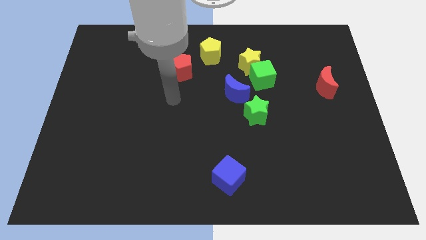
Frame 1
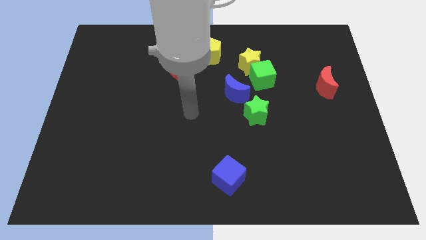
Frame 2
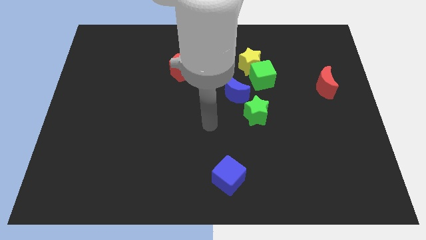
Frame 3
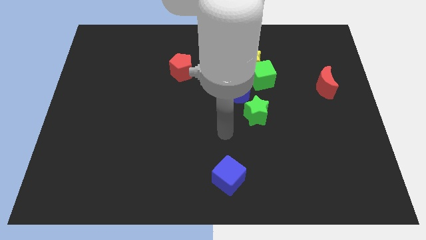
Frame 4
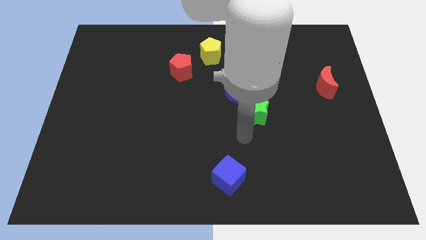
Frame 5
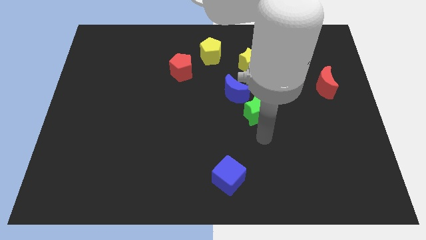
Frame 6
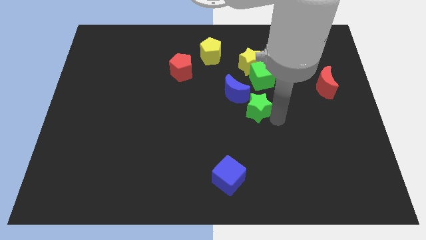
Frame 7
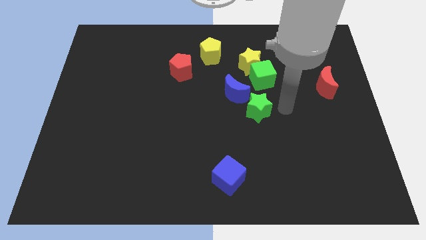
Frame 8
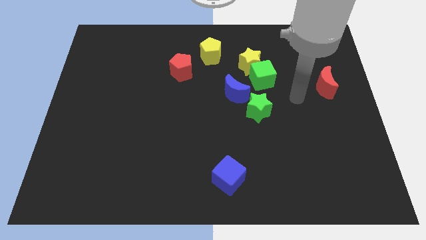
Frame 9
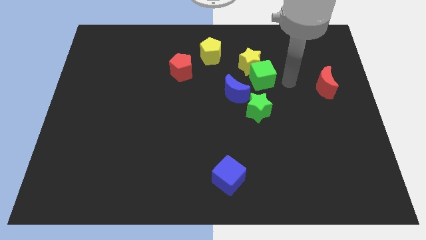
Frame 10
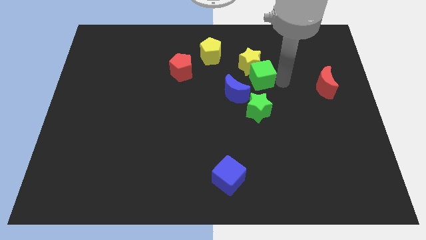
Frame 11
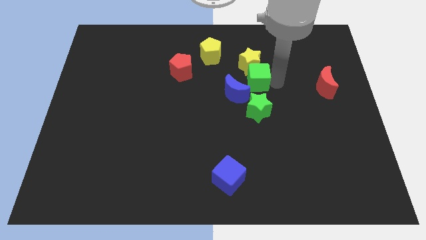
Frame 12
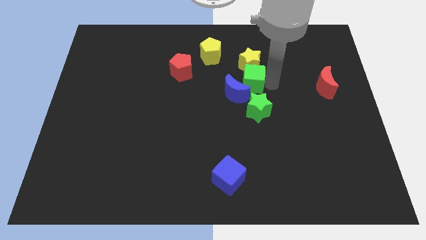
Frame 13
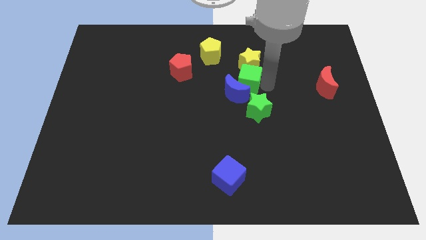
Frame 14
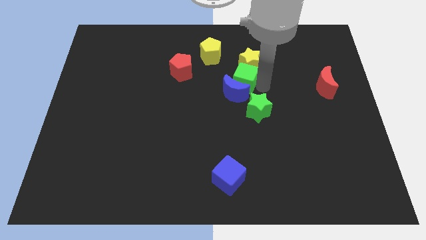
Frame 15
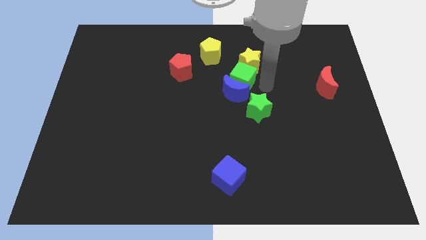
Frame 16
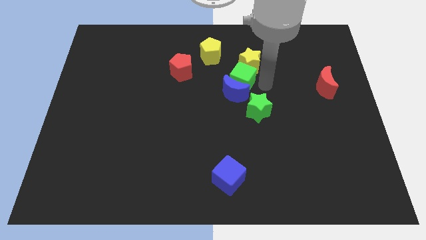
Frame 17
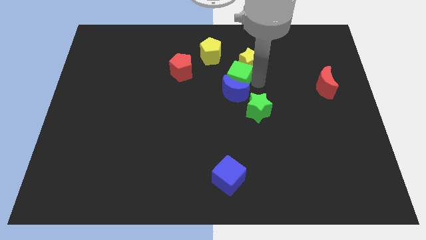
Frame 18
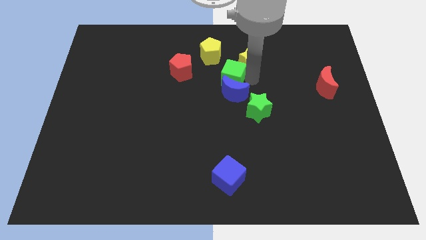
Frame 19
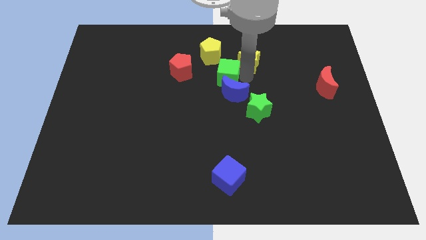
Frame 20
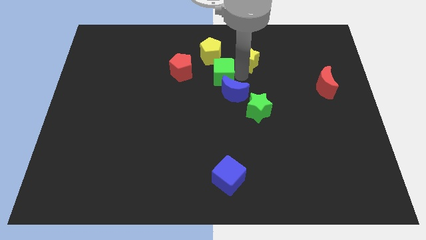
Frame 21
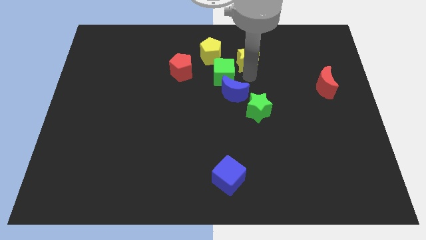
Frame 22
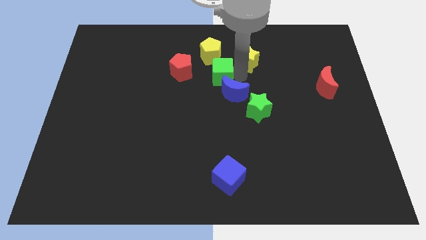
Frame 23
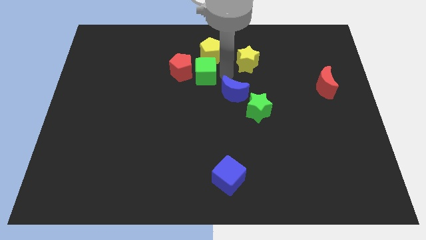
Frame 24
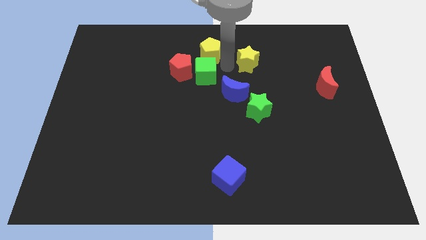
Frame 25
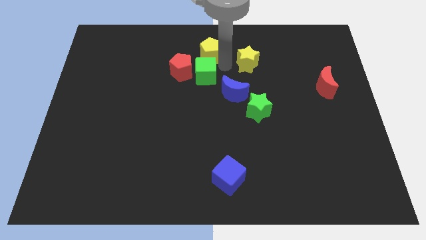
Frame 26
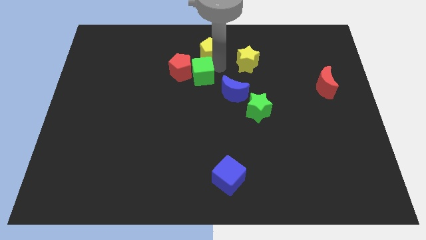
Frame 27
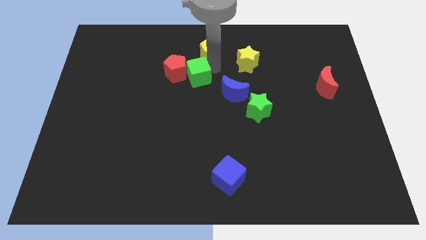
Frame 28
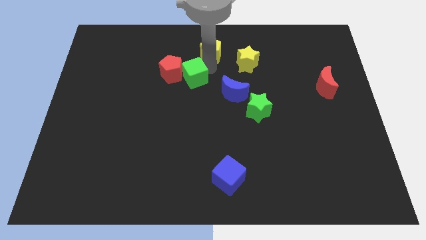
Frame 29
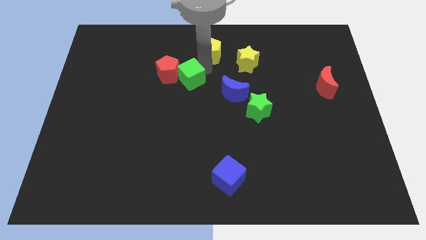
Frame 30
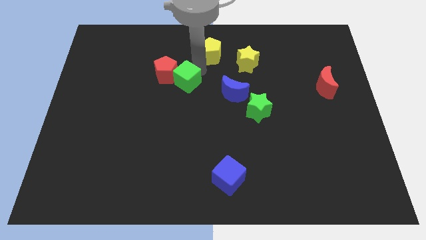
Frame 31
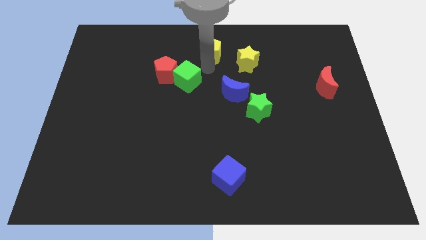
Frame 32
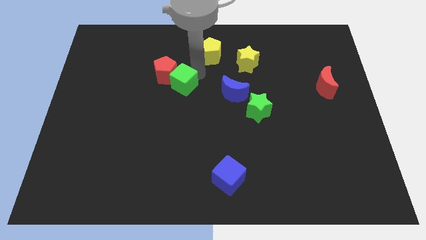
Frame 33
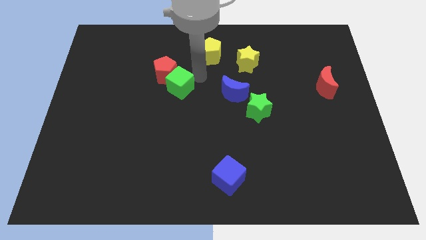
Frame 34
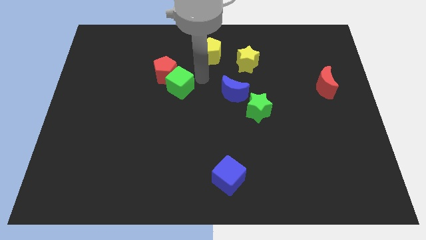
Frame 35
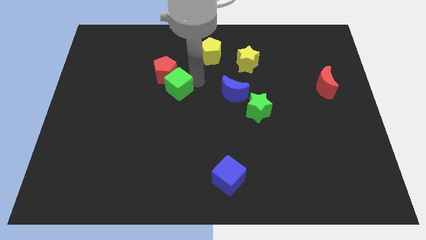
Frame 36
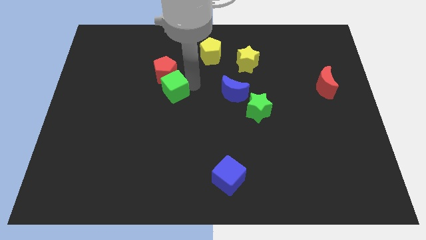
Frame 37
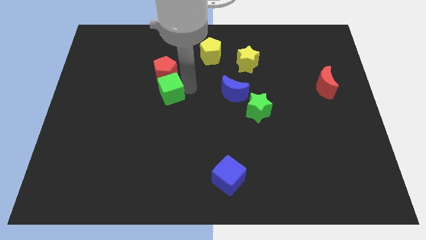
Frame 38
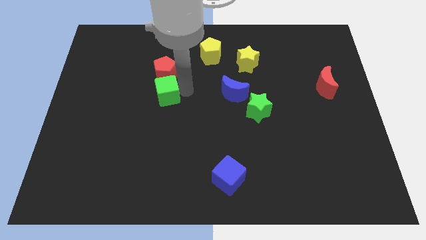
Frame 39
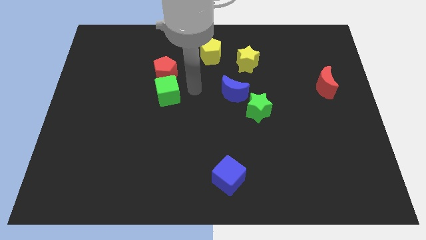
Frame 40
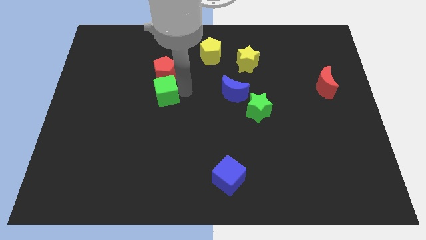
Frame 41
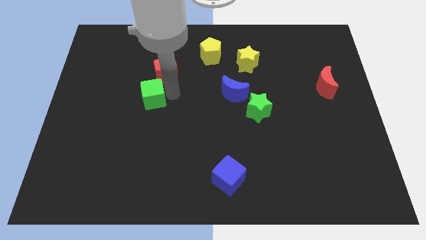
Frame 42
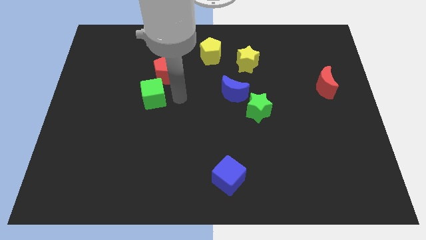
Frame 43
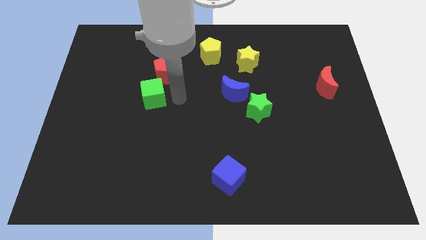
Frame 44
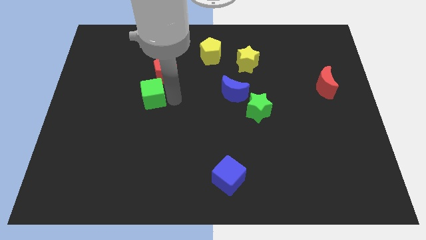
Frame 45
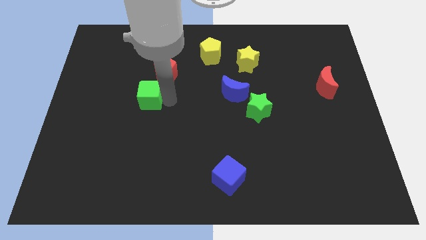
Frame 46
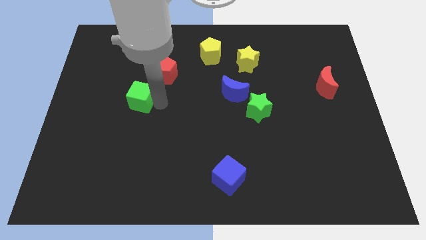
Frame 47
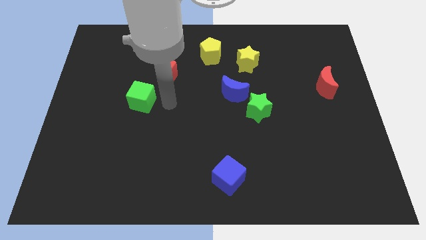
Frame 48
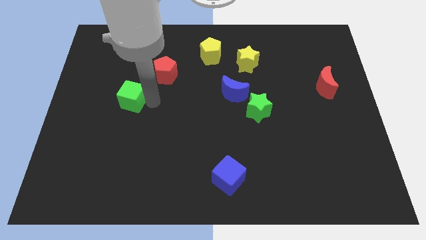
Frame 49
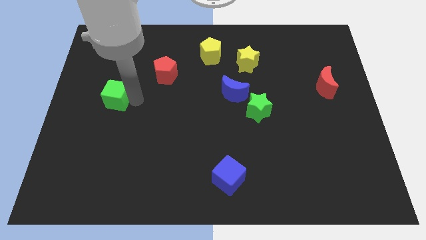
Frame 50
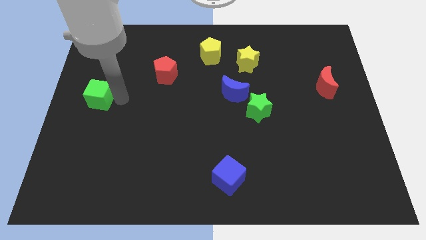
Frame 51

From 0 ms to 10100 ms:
put the green cube to the center left

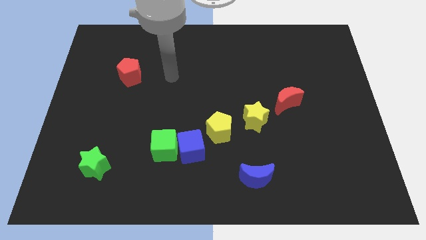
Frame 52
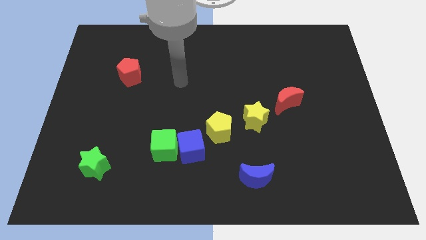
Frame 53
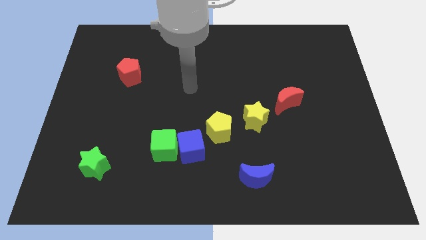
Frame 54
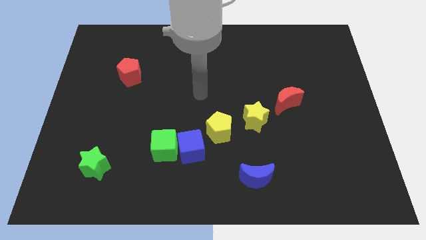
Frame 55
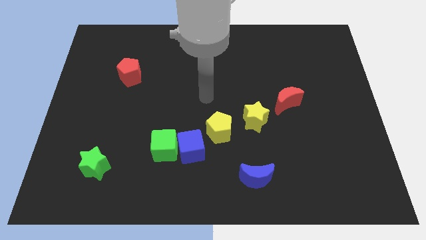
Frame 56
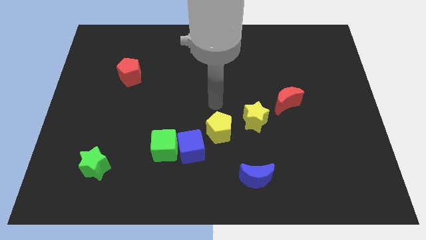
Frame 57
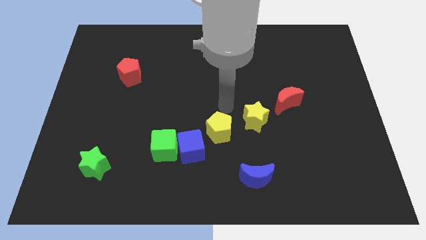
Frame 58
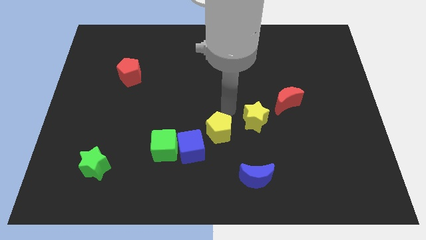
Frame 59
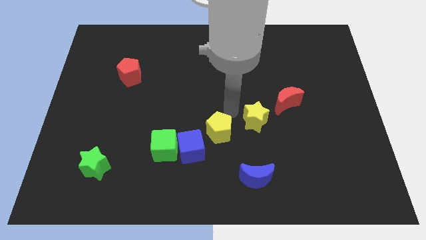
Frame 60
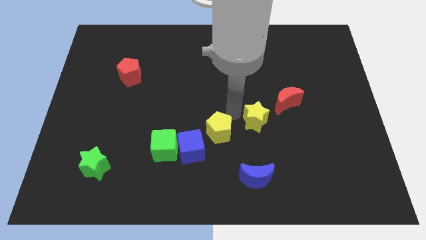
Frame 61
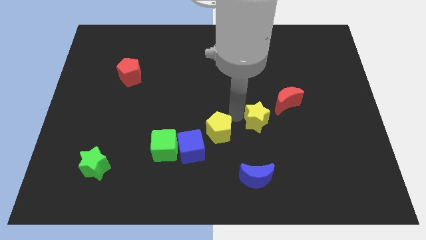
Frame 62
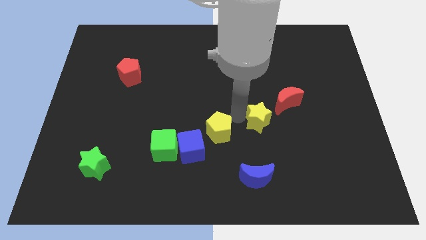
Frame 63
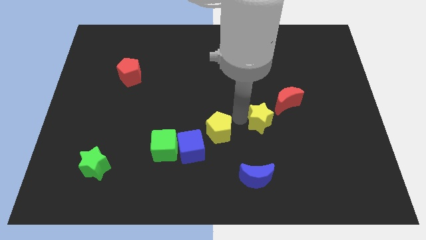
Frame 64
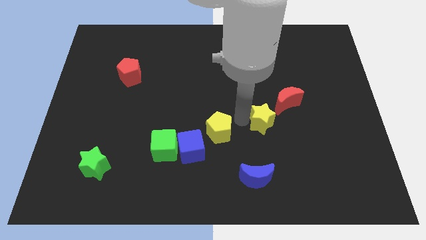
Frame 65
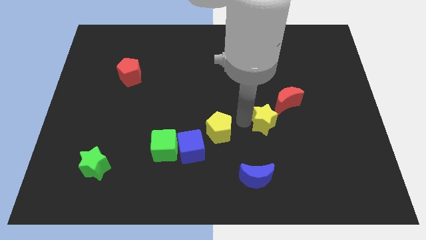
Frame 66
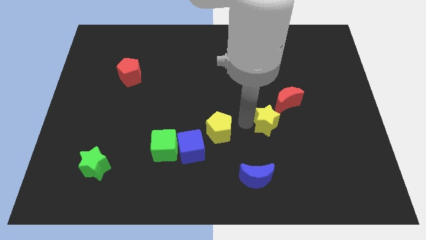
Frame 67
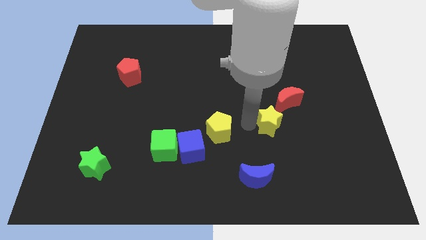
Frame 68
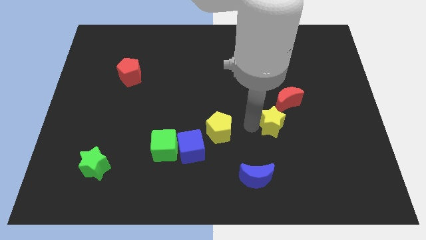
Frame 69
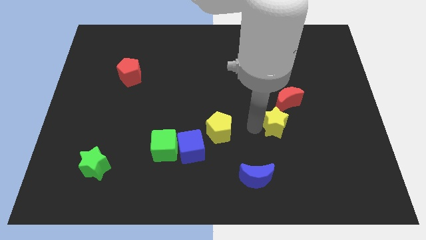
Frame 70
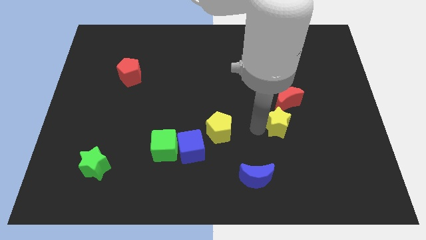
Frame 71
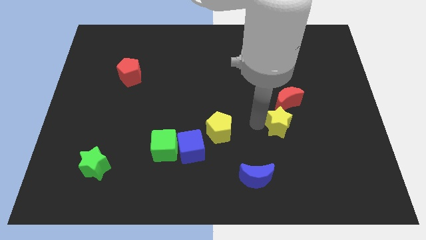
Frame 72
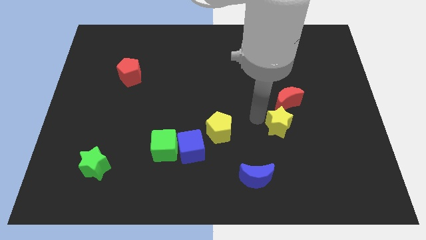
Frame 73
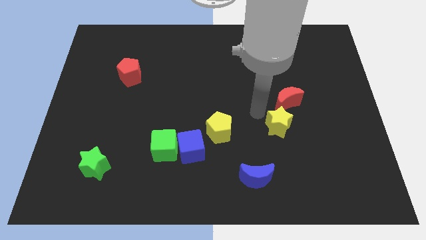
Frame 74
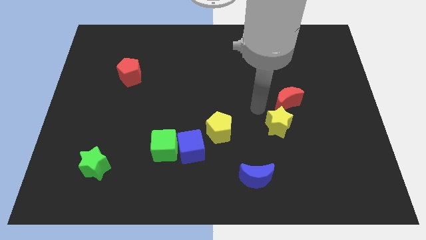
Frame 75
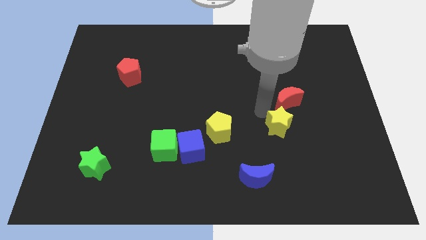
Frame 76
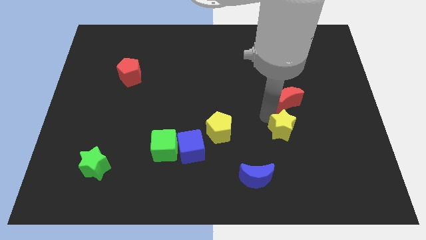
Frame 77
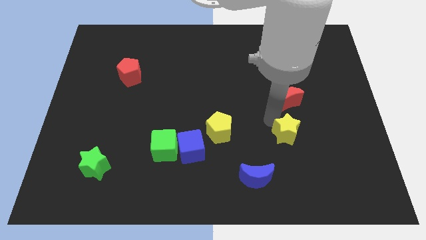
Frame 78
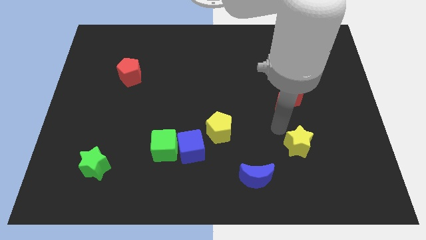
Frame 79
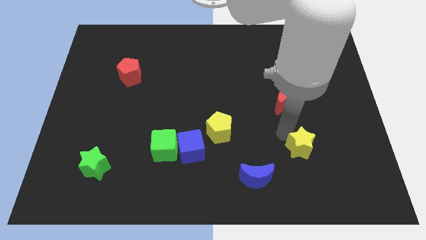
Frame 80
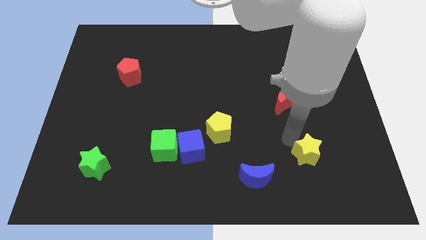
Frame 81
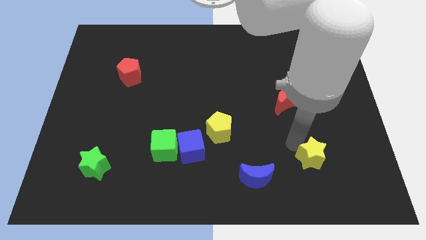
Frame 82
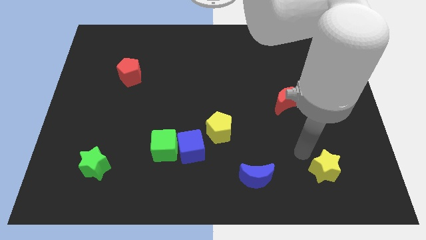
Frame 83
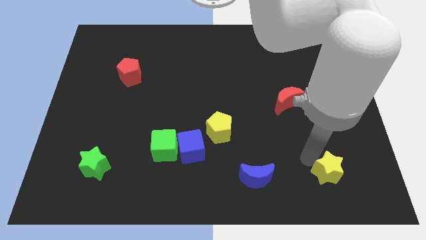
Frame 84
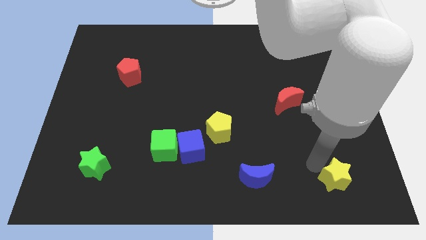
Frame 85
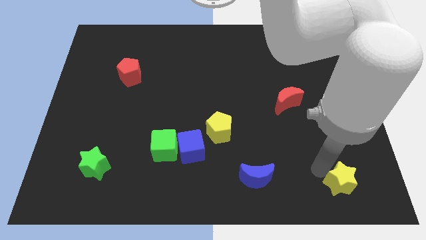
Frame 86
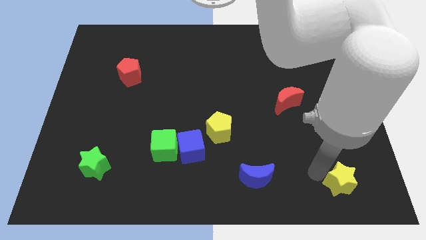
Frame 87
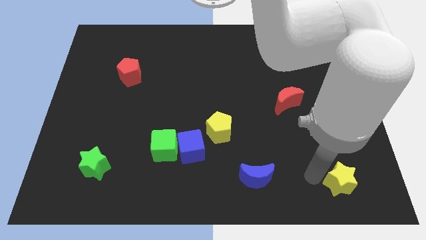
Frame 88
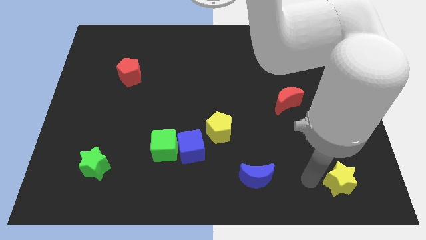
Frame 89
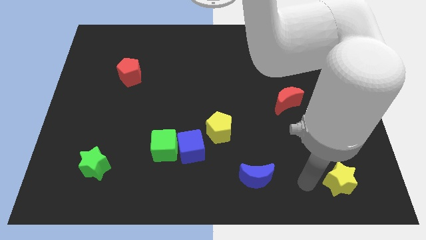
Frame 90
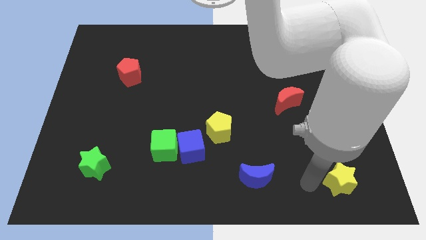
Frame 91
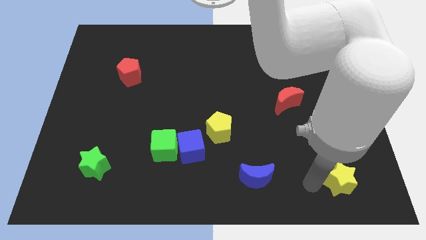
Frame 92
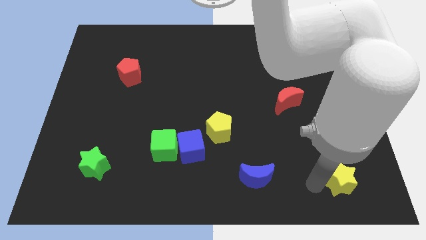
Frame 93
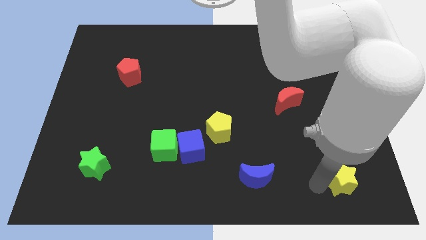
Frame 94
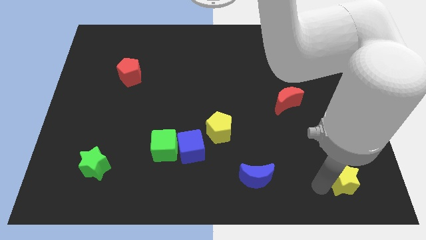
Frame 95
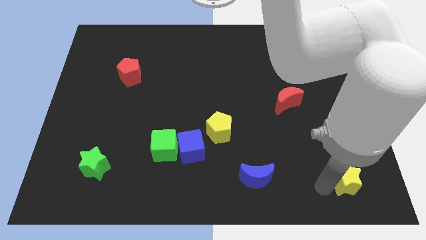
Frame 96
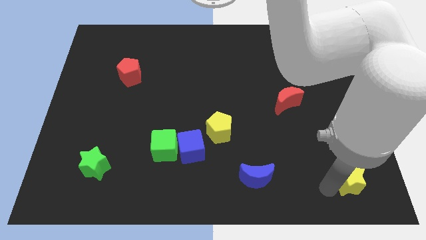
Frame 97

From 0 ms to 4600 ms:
move the yellow star to the bottom right corner
